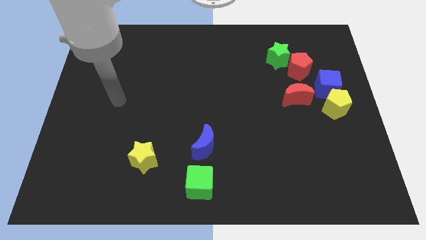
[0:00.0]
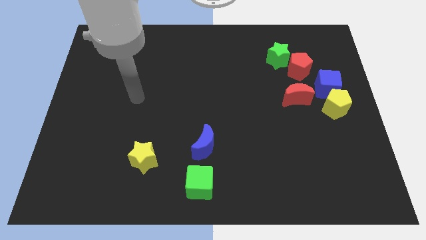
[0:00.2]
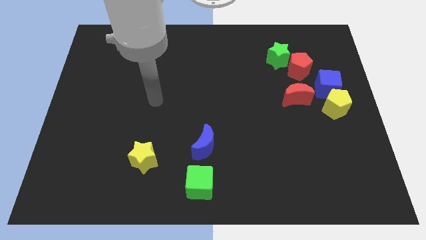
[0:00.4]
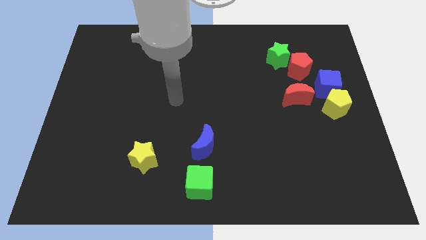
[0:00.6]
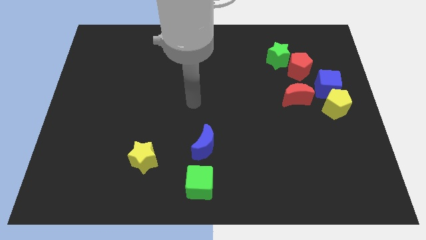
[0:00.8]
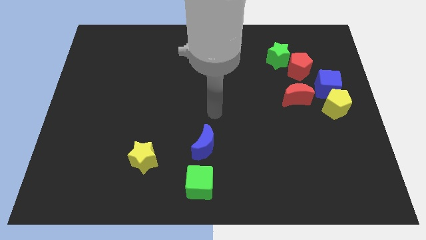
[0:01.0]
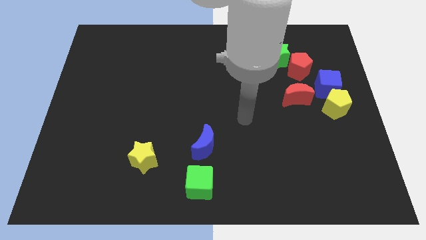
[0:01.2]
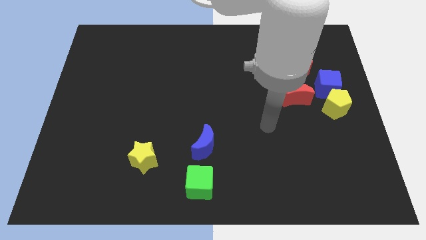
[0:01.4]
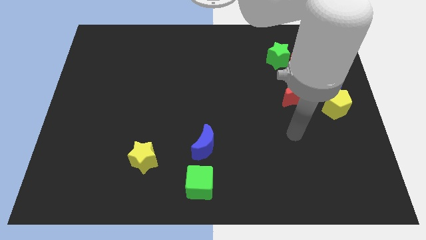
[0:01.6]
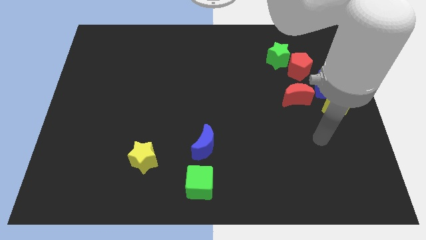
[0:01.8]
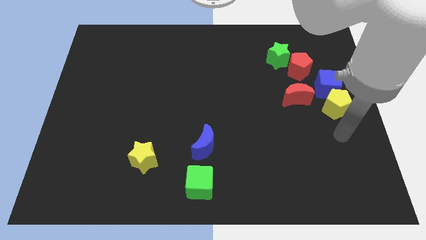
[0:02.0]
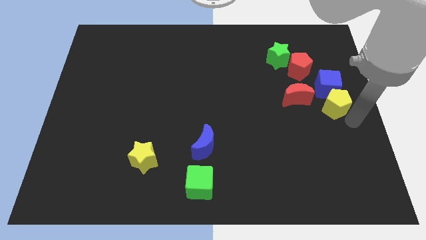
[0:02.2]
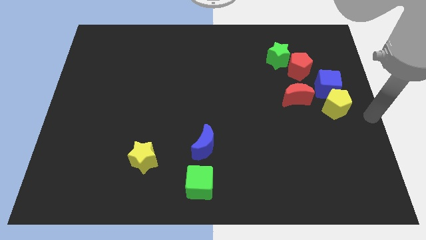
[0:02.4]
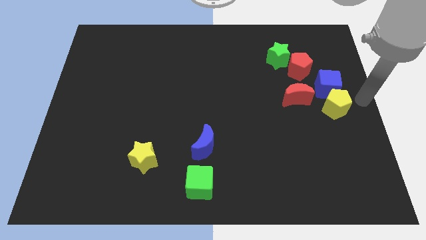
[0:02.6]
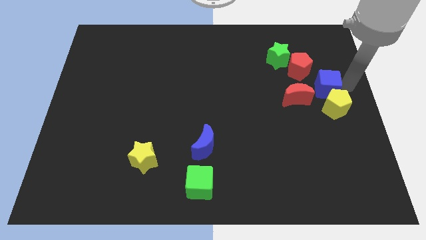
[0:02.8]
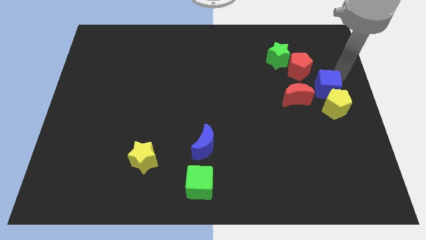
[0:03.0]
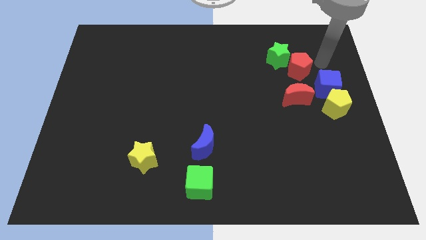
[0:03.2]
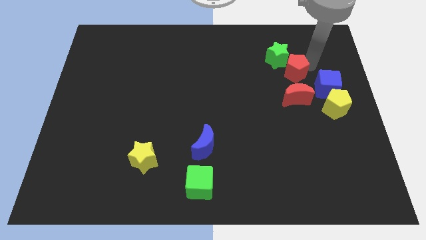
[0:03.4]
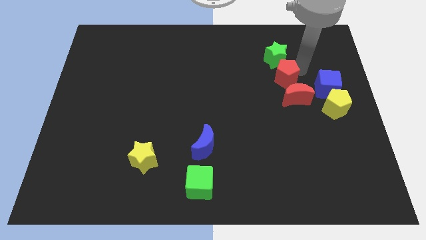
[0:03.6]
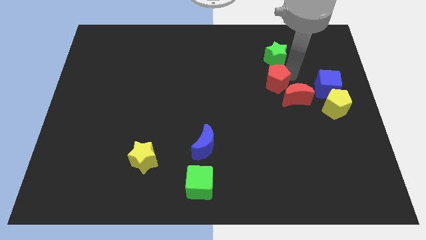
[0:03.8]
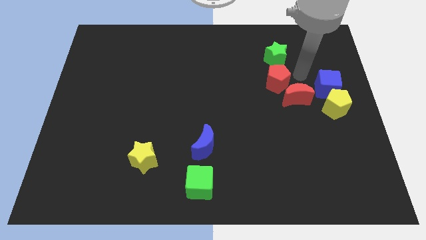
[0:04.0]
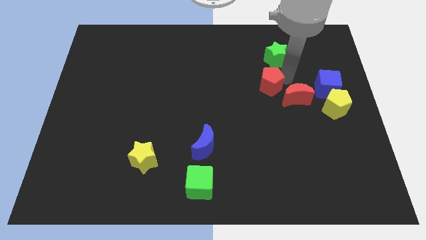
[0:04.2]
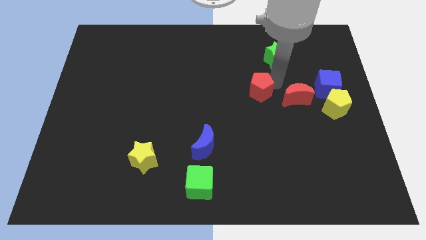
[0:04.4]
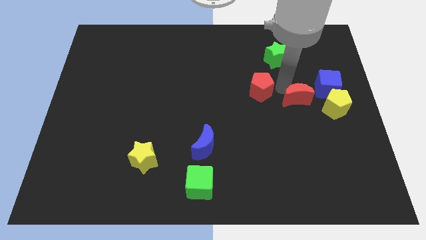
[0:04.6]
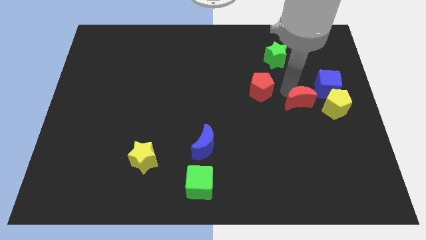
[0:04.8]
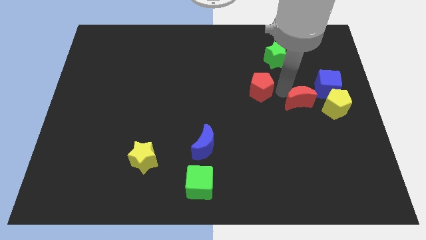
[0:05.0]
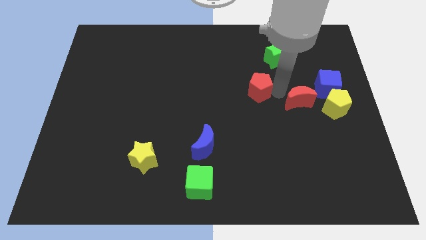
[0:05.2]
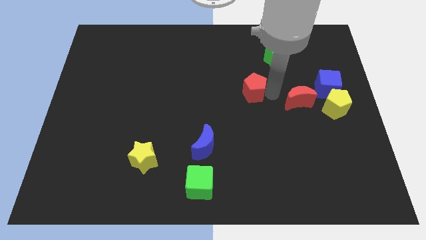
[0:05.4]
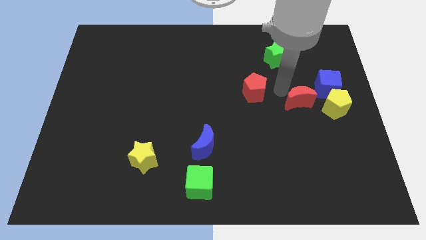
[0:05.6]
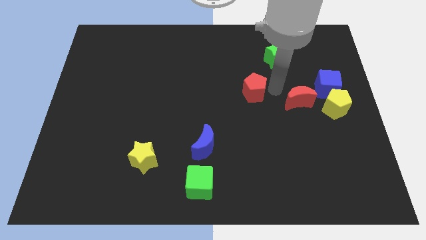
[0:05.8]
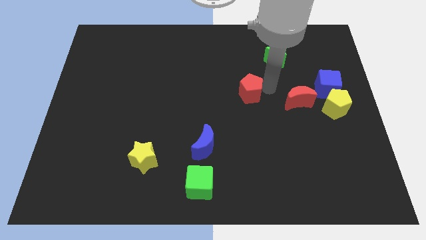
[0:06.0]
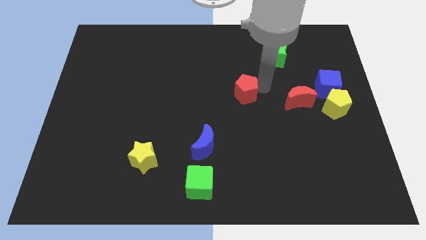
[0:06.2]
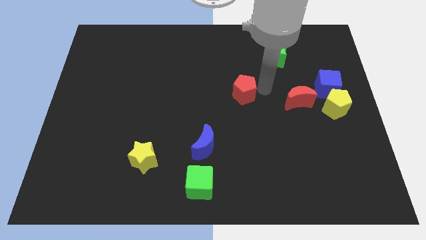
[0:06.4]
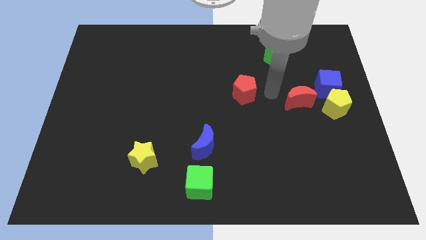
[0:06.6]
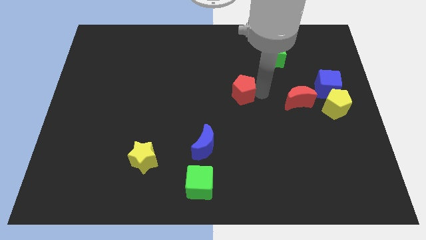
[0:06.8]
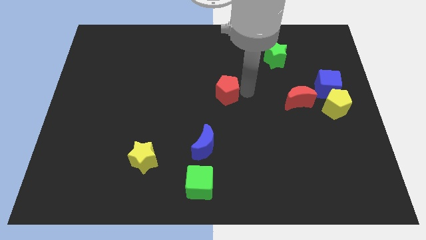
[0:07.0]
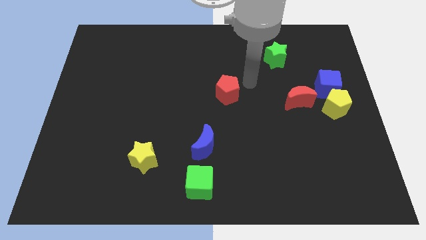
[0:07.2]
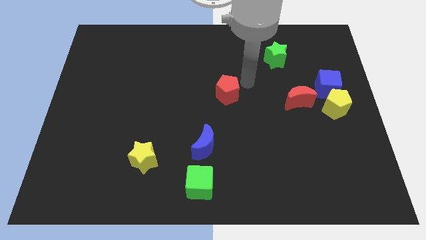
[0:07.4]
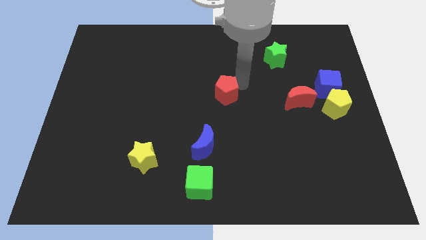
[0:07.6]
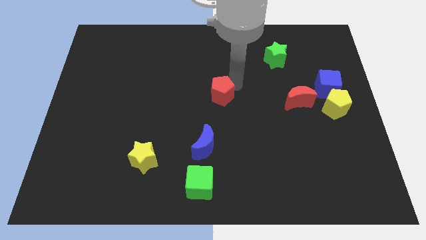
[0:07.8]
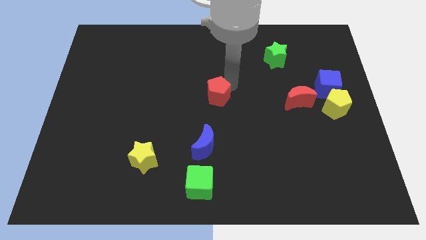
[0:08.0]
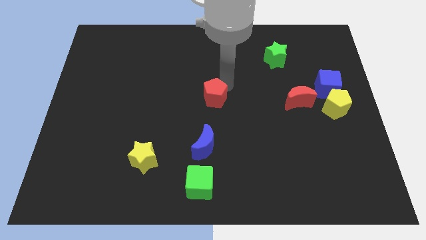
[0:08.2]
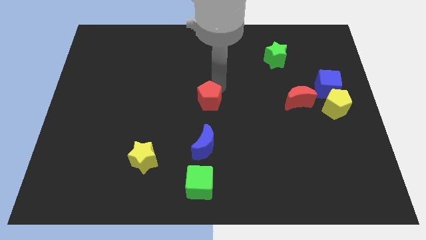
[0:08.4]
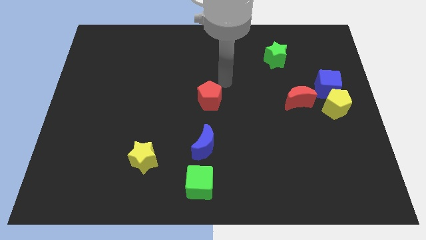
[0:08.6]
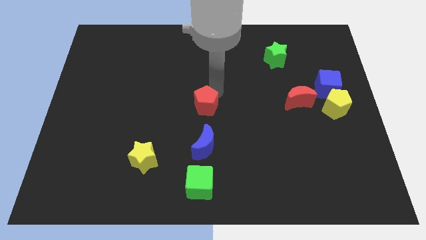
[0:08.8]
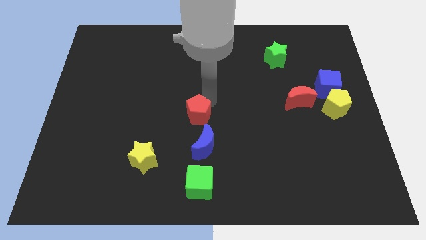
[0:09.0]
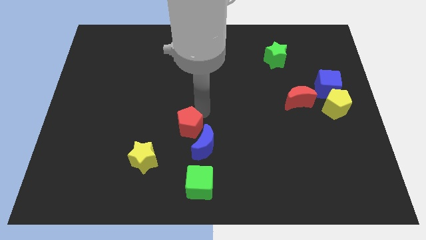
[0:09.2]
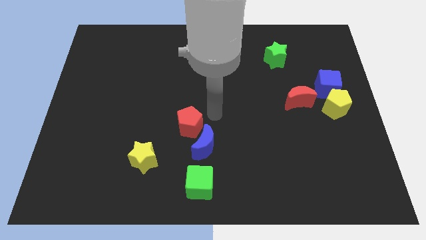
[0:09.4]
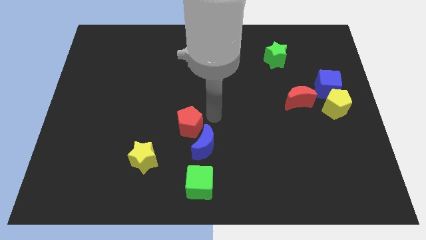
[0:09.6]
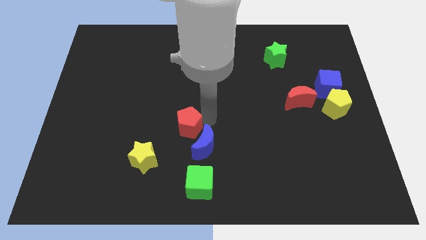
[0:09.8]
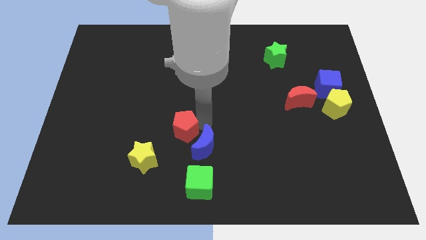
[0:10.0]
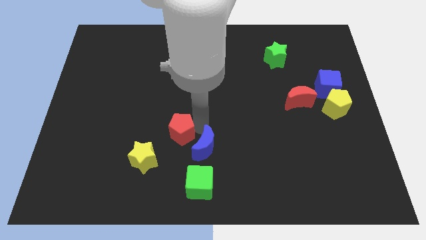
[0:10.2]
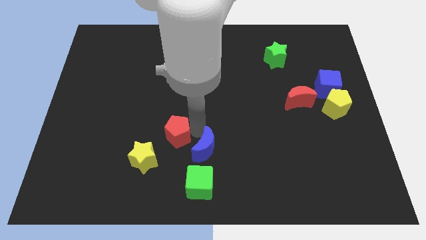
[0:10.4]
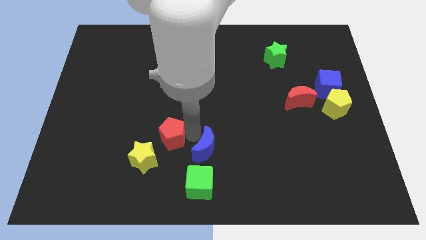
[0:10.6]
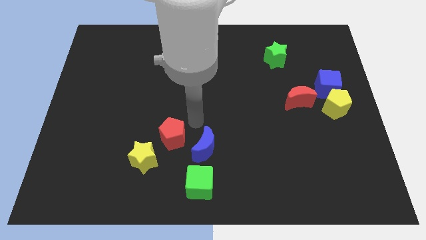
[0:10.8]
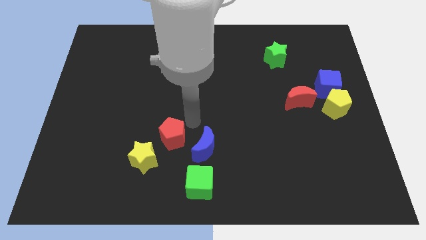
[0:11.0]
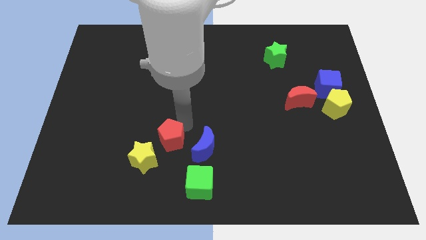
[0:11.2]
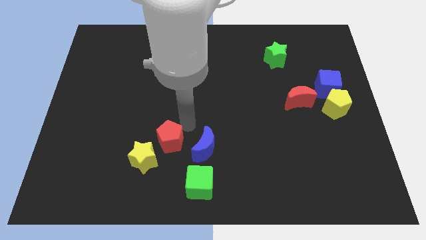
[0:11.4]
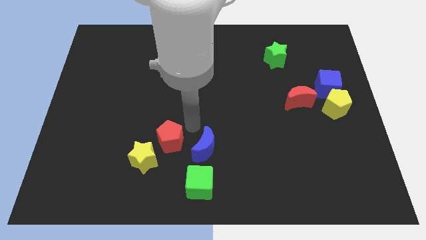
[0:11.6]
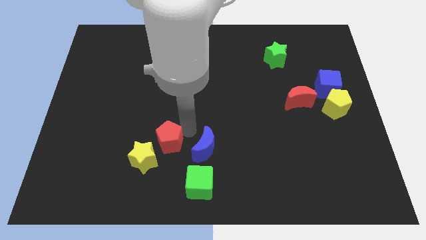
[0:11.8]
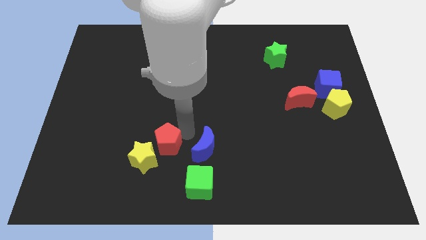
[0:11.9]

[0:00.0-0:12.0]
push the red pentagon to the yellow star
